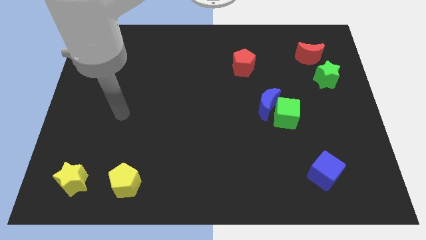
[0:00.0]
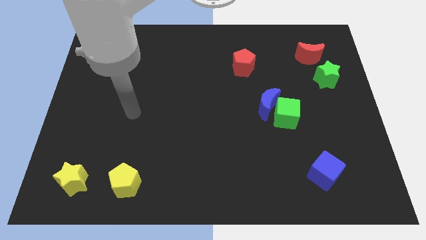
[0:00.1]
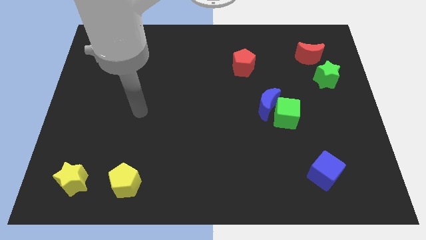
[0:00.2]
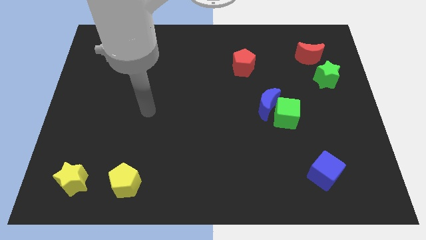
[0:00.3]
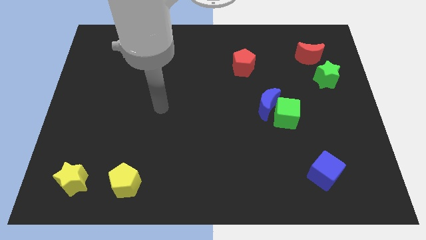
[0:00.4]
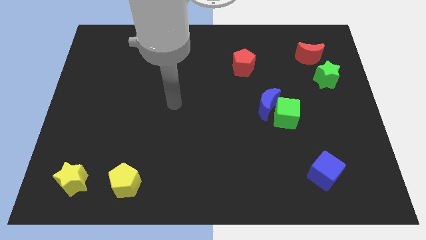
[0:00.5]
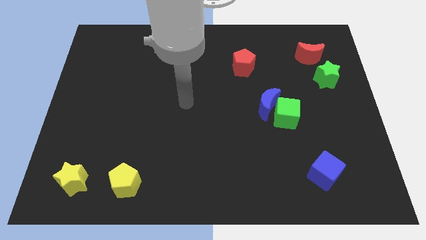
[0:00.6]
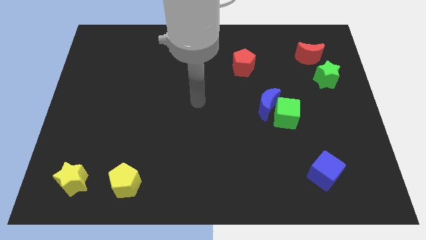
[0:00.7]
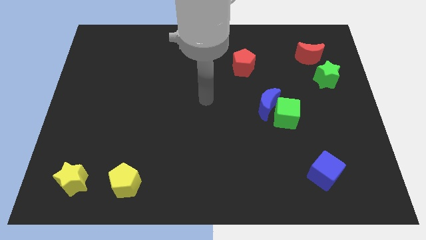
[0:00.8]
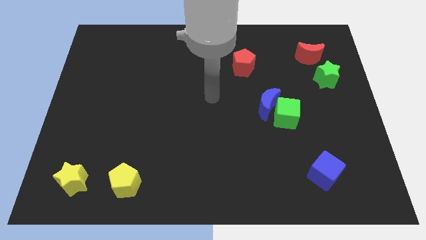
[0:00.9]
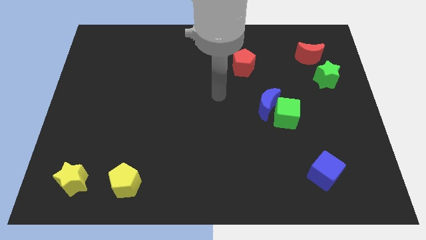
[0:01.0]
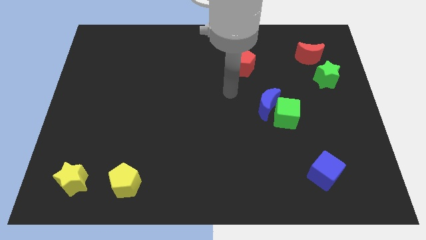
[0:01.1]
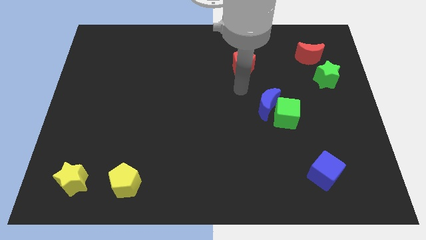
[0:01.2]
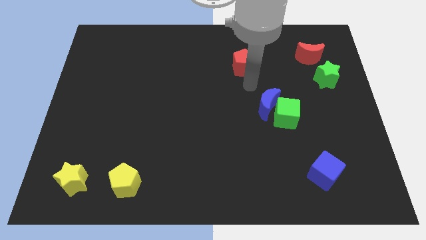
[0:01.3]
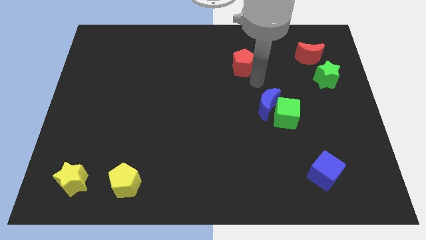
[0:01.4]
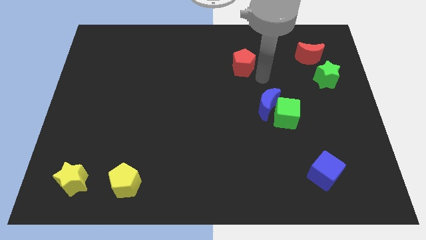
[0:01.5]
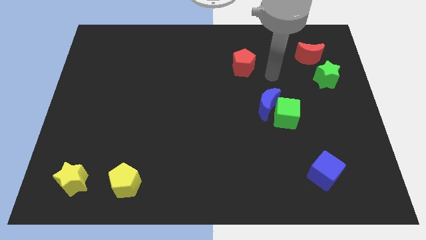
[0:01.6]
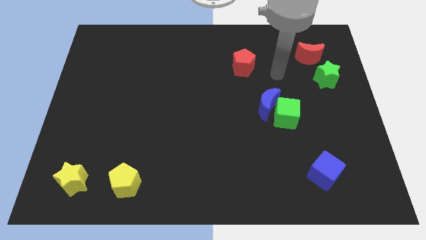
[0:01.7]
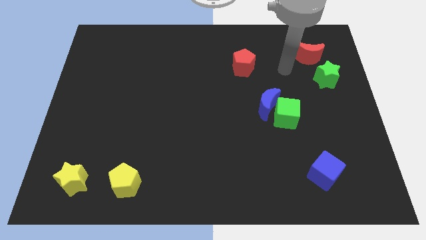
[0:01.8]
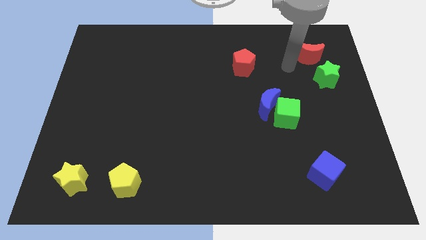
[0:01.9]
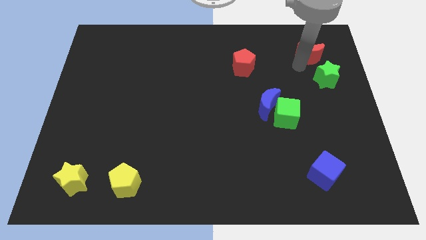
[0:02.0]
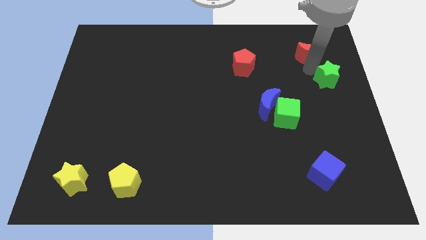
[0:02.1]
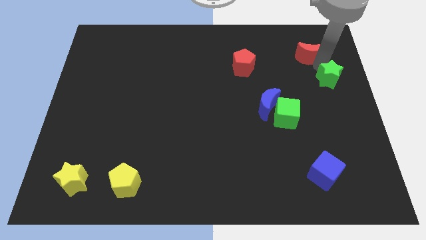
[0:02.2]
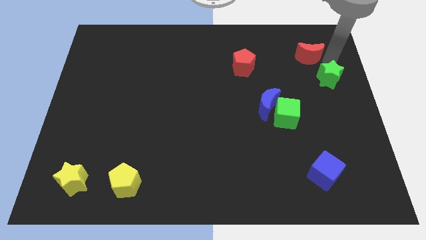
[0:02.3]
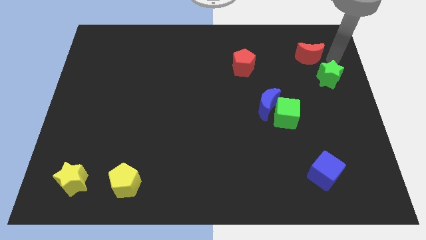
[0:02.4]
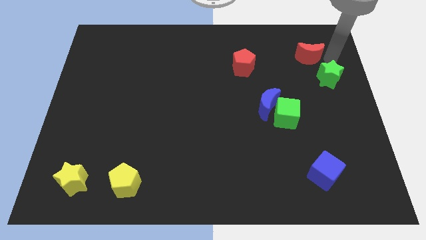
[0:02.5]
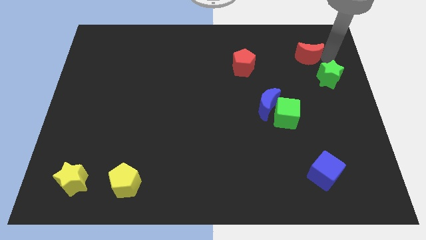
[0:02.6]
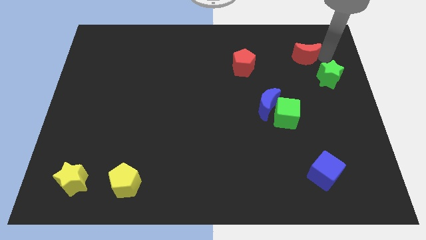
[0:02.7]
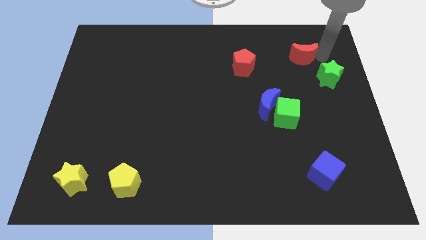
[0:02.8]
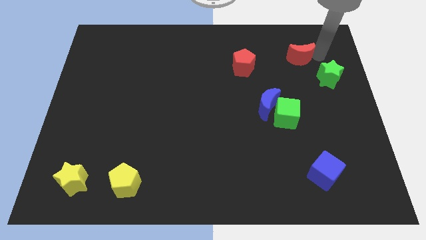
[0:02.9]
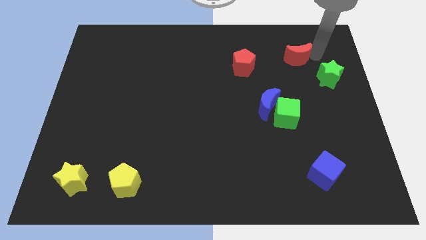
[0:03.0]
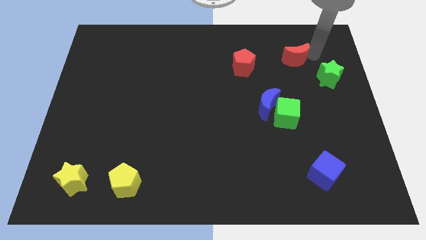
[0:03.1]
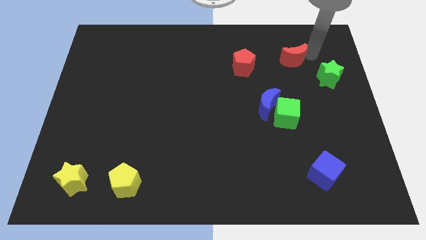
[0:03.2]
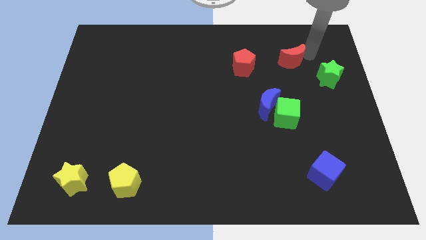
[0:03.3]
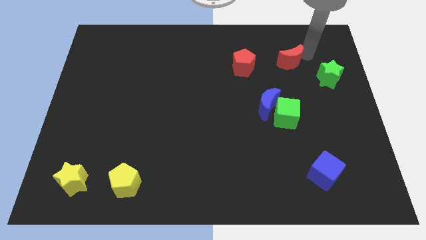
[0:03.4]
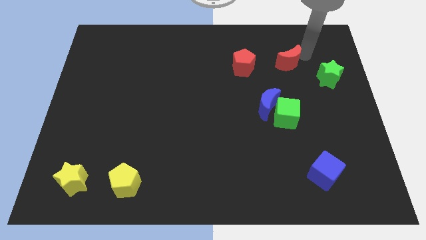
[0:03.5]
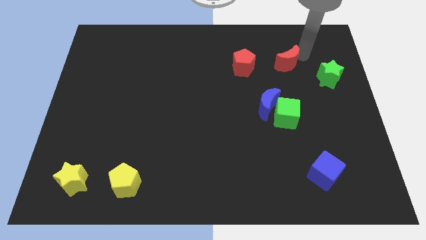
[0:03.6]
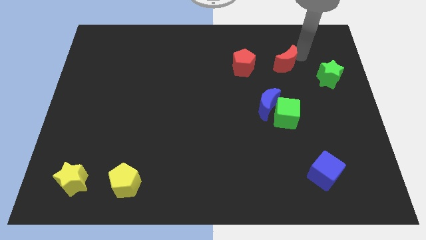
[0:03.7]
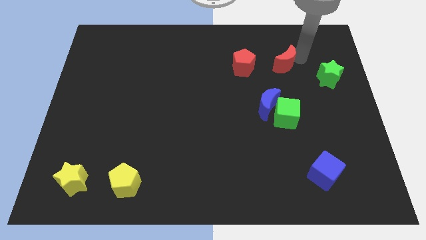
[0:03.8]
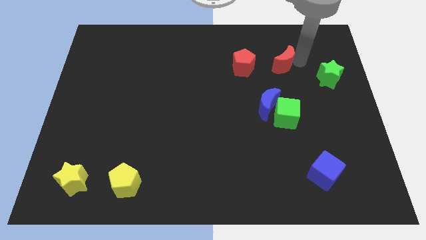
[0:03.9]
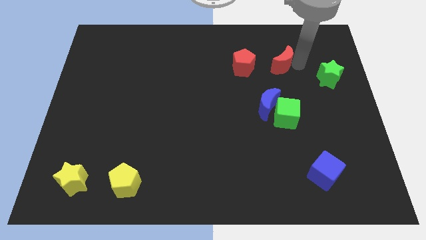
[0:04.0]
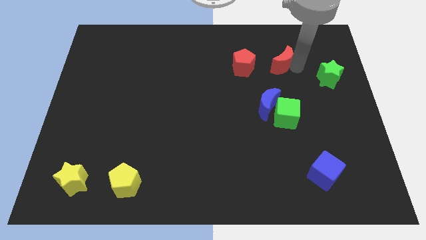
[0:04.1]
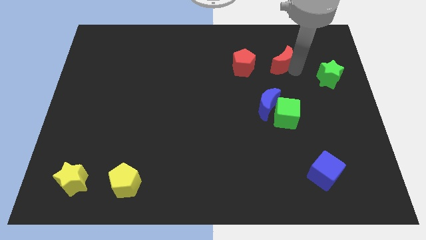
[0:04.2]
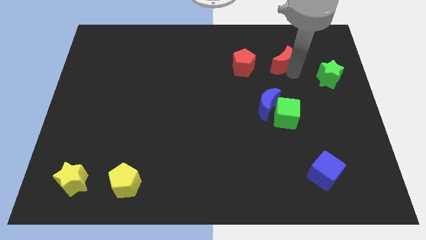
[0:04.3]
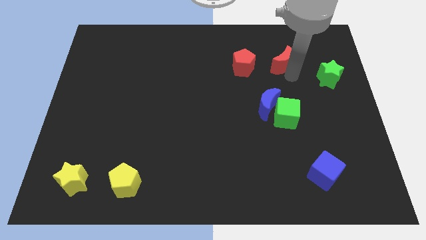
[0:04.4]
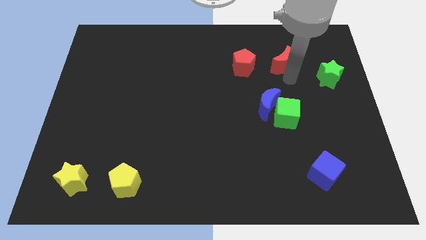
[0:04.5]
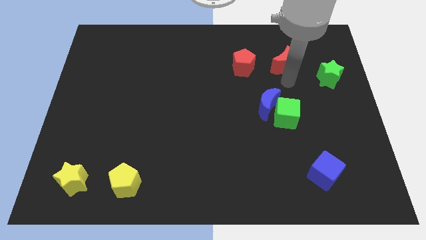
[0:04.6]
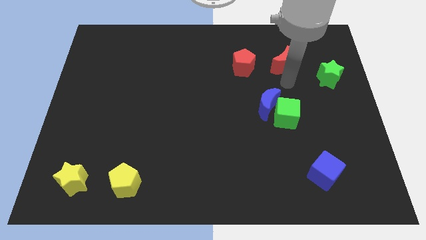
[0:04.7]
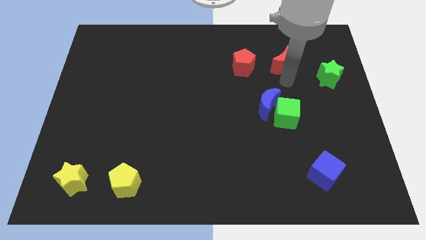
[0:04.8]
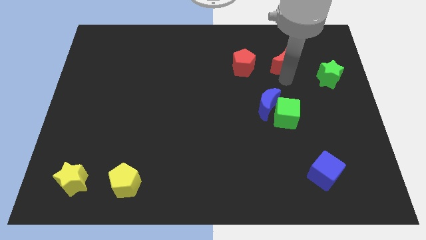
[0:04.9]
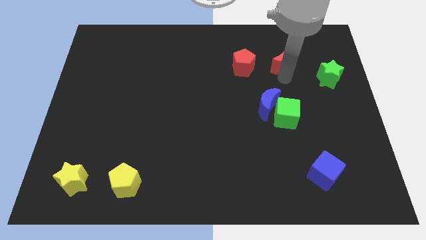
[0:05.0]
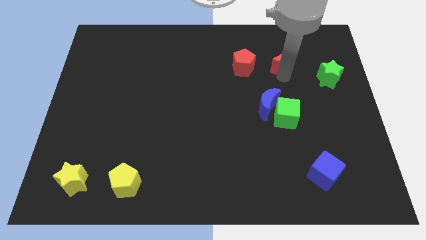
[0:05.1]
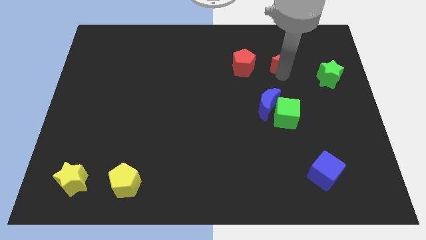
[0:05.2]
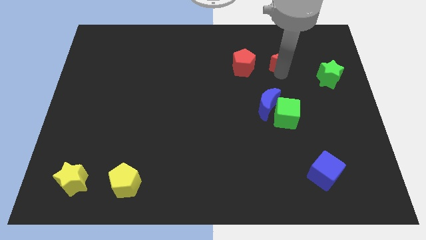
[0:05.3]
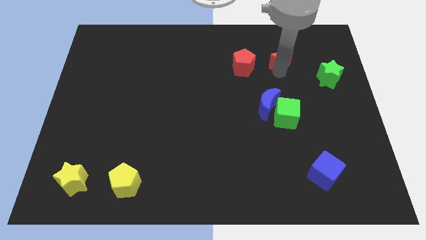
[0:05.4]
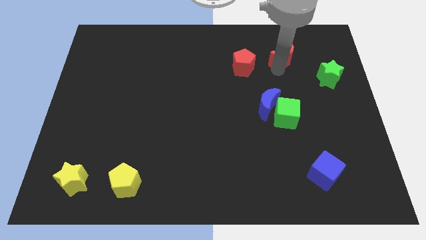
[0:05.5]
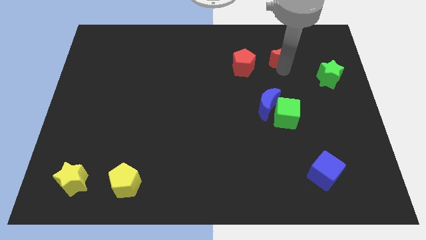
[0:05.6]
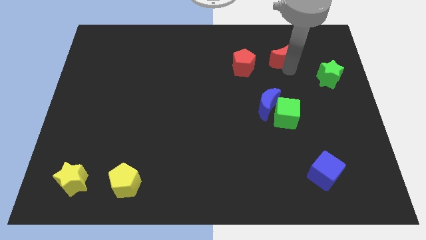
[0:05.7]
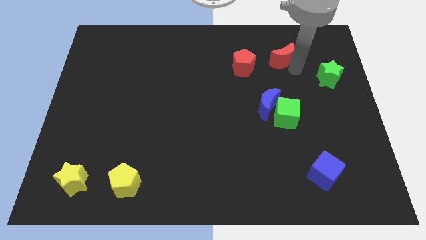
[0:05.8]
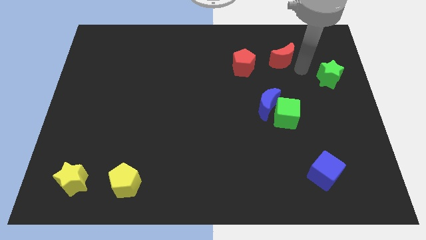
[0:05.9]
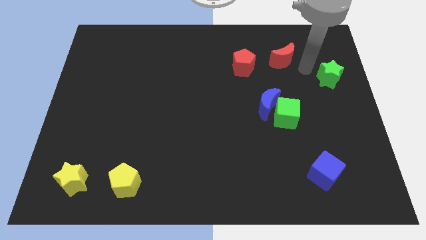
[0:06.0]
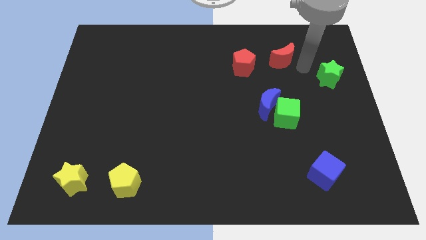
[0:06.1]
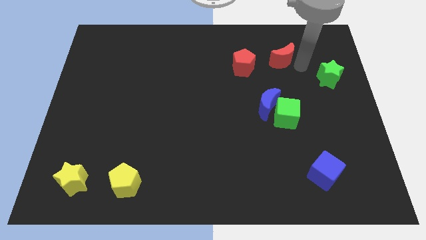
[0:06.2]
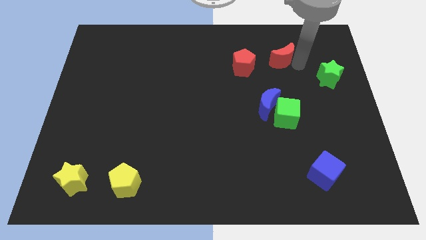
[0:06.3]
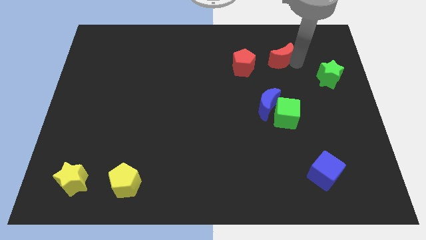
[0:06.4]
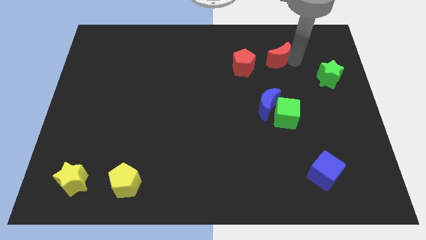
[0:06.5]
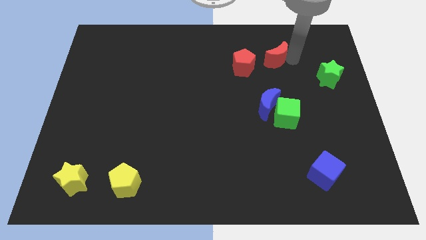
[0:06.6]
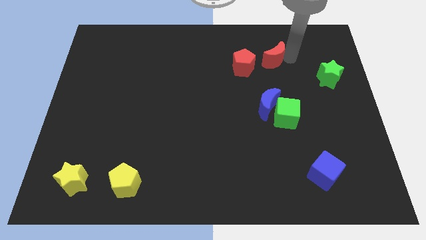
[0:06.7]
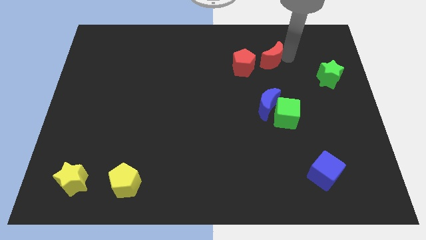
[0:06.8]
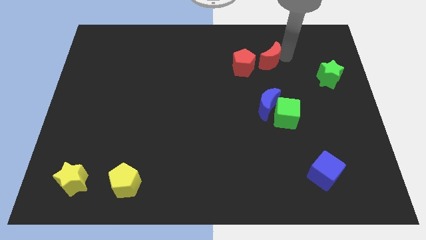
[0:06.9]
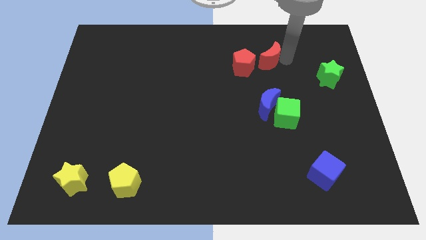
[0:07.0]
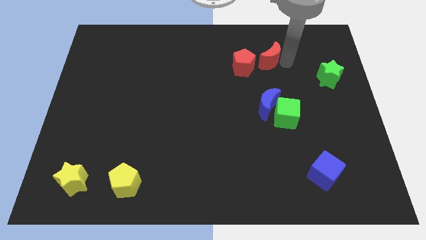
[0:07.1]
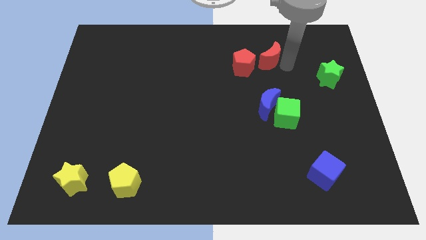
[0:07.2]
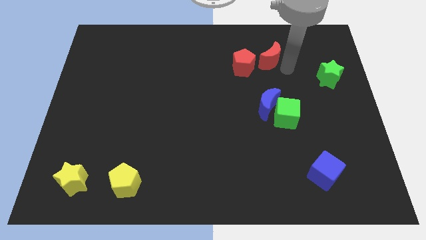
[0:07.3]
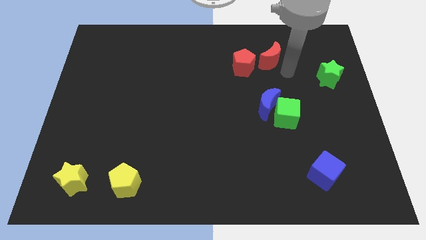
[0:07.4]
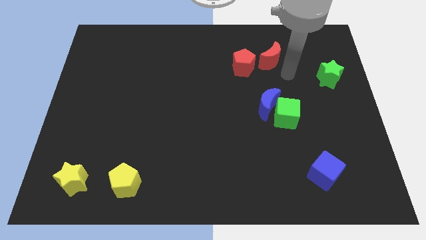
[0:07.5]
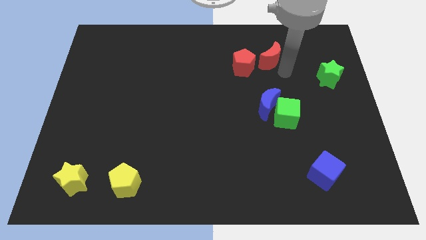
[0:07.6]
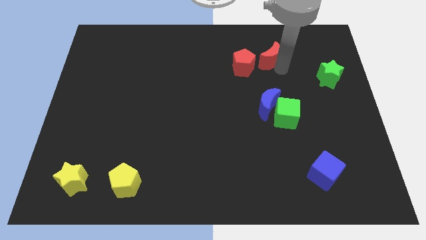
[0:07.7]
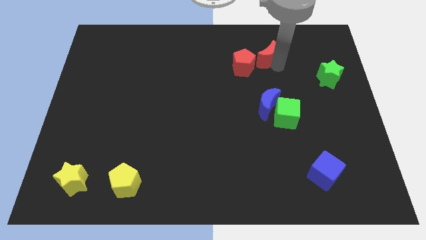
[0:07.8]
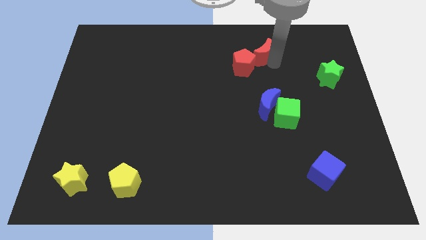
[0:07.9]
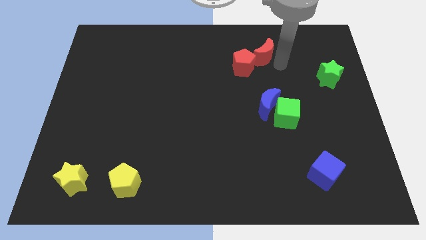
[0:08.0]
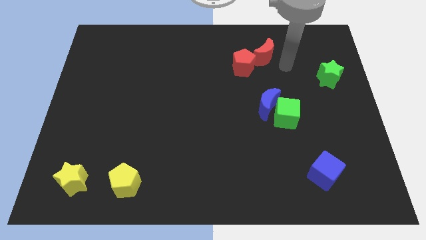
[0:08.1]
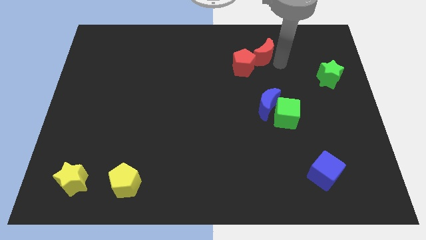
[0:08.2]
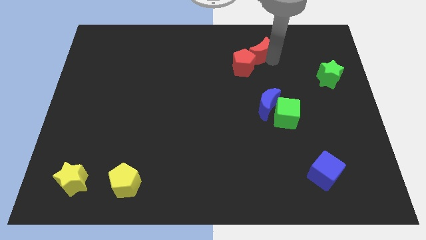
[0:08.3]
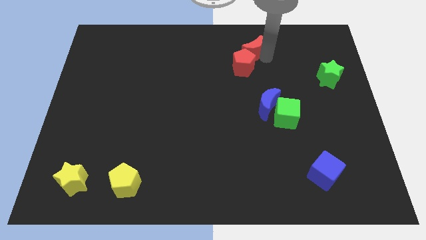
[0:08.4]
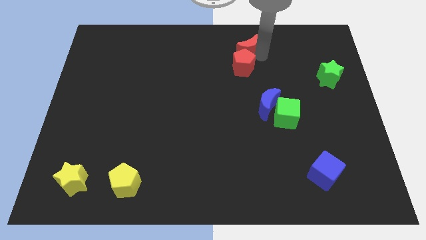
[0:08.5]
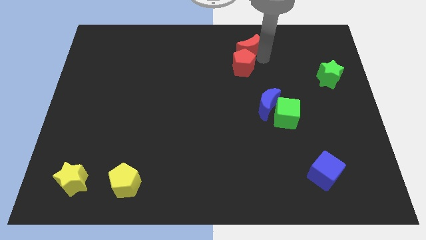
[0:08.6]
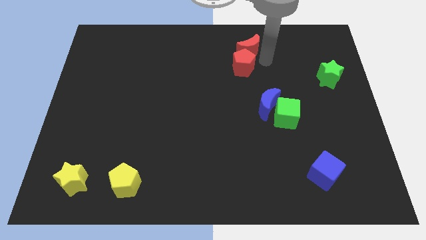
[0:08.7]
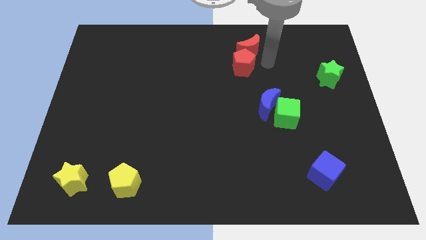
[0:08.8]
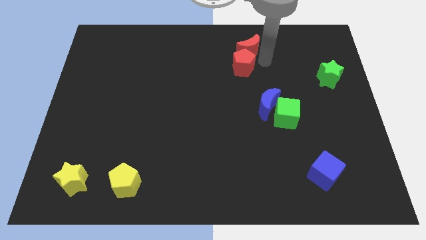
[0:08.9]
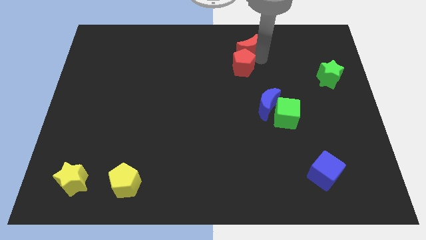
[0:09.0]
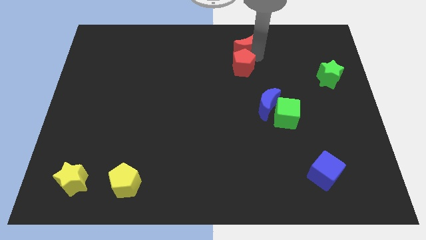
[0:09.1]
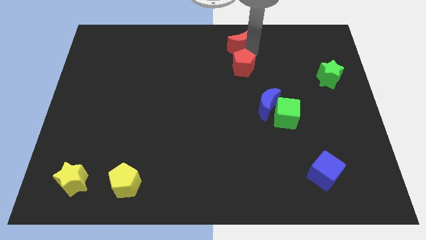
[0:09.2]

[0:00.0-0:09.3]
slide the red moon to the towards your base
